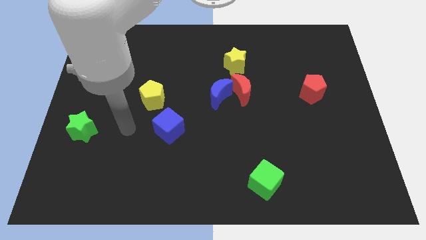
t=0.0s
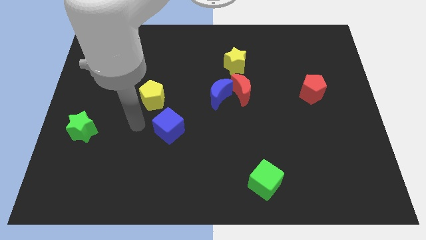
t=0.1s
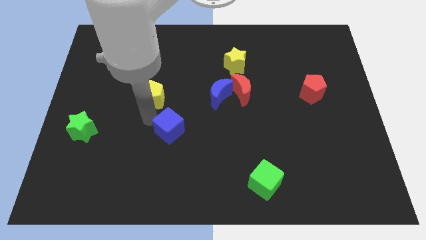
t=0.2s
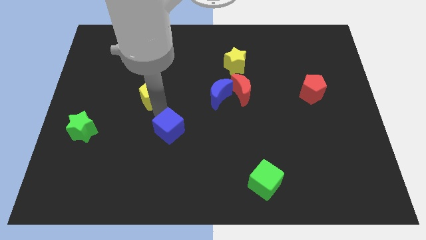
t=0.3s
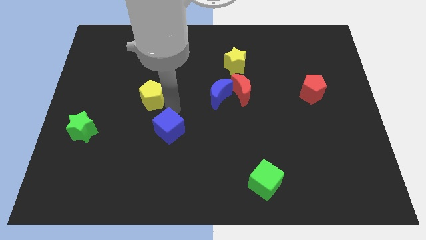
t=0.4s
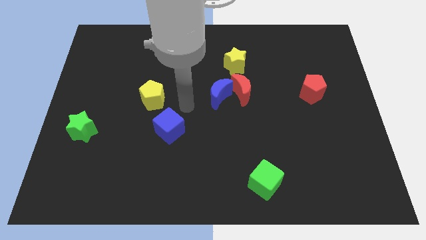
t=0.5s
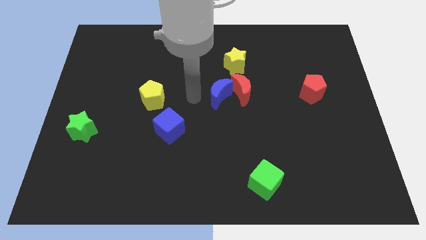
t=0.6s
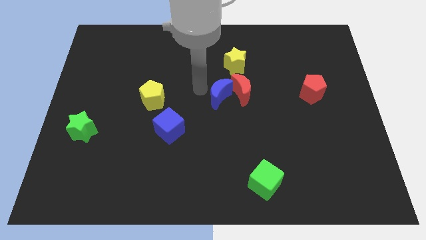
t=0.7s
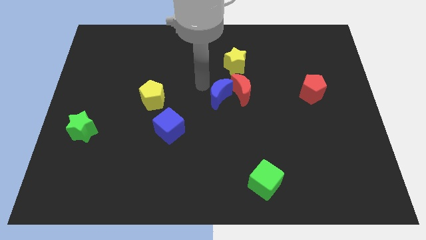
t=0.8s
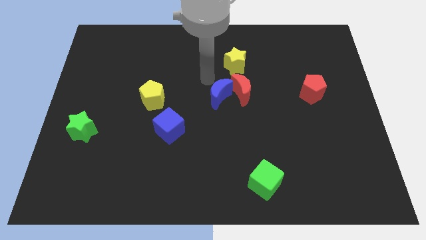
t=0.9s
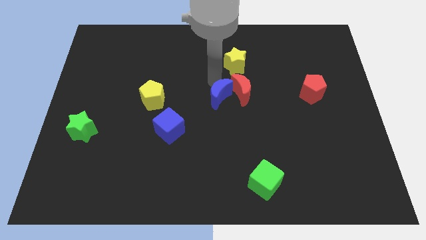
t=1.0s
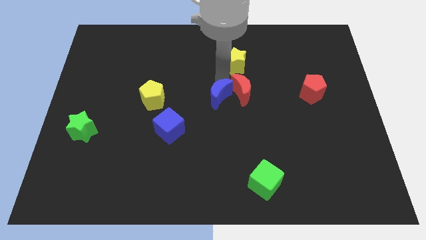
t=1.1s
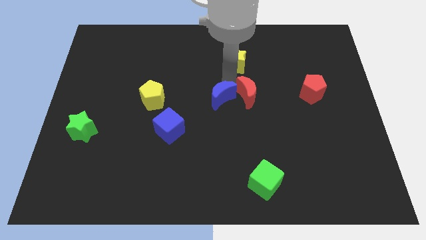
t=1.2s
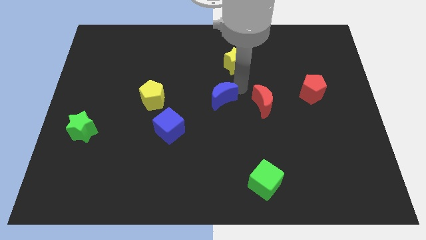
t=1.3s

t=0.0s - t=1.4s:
move the blue moon away from the red moon

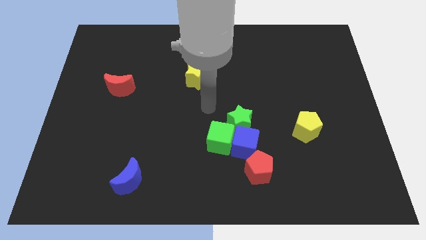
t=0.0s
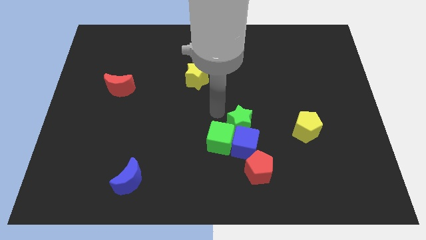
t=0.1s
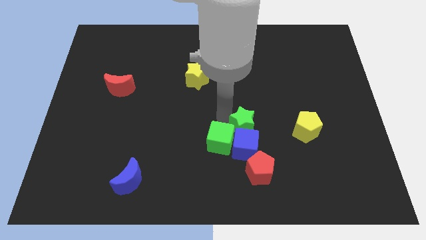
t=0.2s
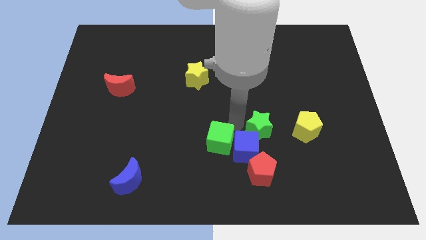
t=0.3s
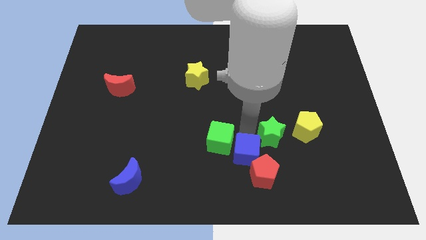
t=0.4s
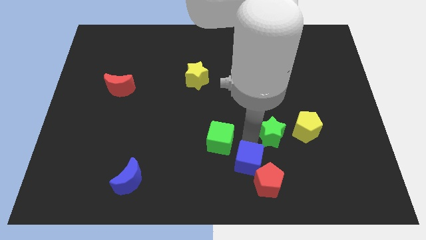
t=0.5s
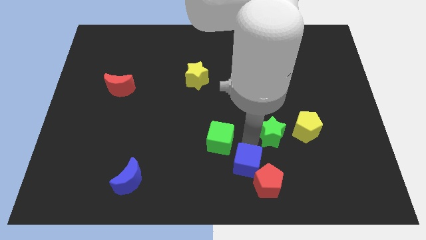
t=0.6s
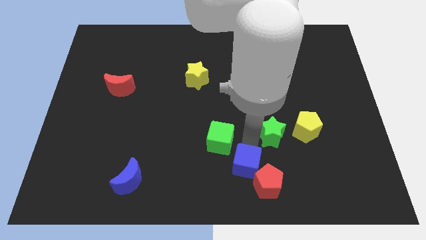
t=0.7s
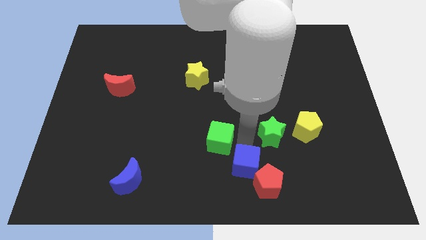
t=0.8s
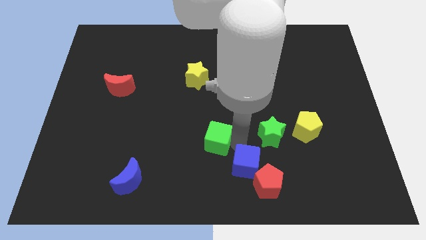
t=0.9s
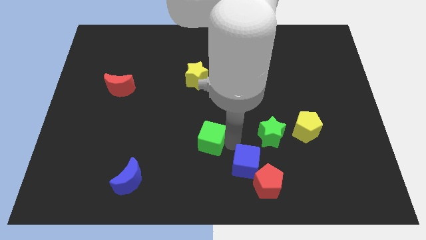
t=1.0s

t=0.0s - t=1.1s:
move the green cube away from the blue cube and green star

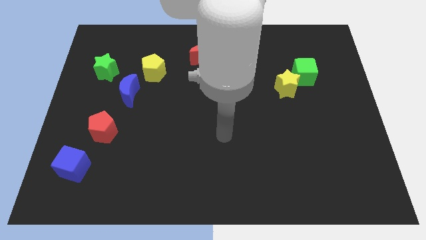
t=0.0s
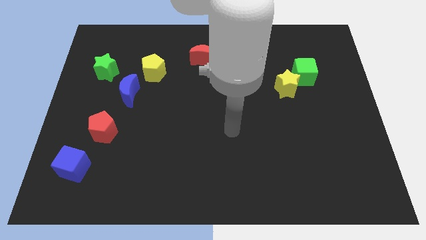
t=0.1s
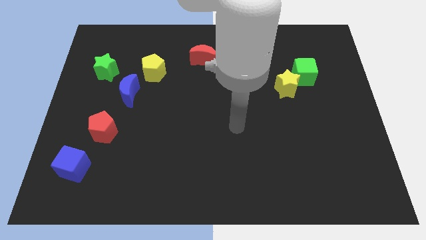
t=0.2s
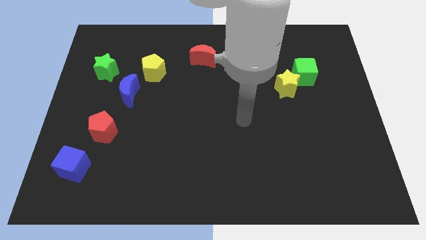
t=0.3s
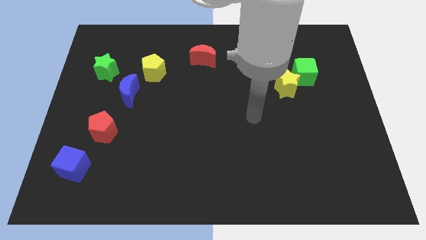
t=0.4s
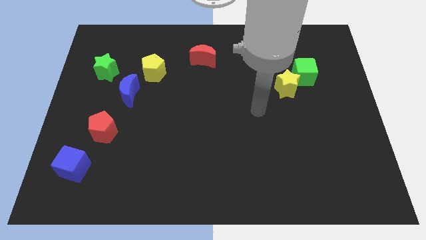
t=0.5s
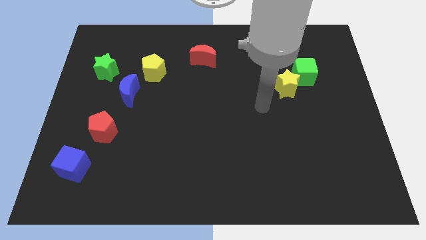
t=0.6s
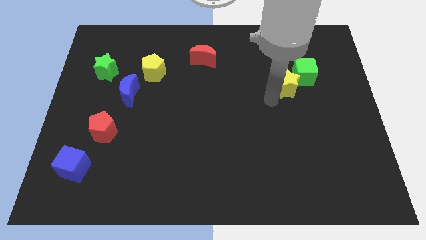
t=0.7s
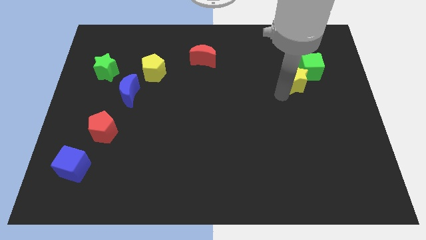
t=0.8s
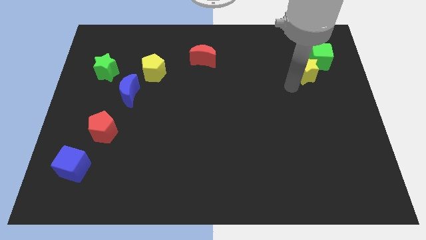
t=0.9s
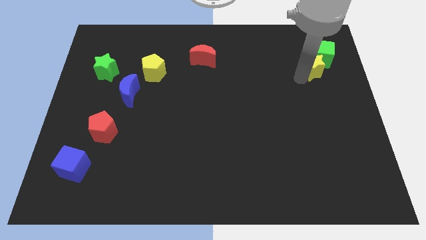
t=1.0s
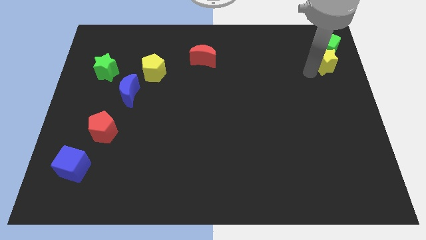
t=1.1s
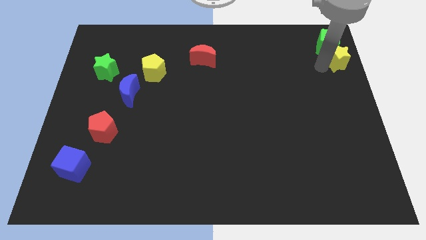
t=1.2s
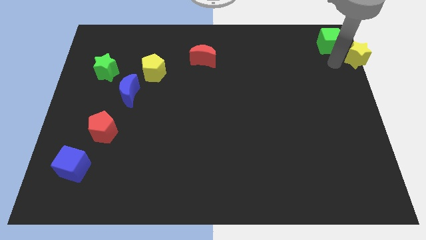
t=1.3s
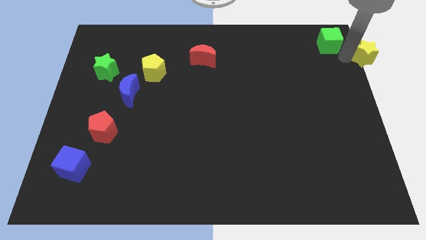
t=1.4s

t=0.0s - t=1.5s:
pull the green cube apart from the yellow star

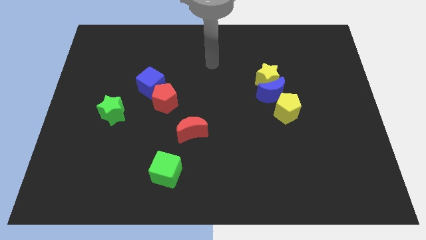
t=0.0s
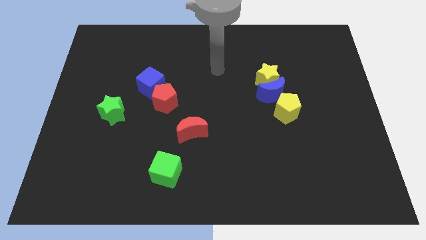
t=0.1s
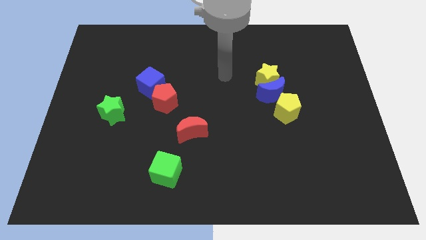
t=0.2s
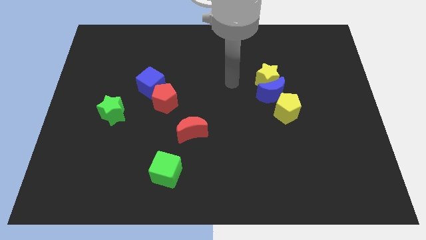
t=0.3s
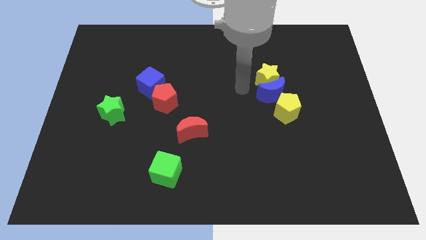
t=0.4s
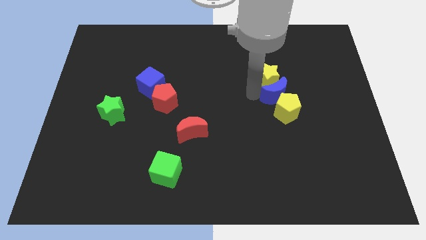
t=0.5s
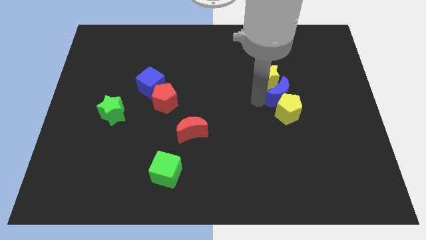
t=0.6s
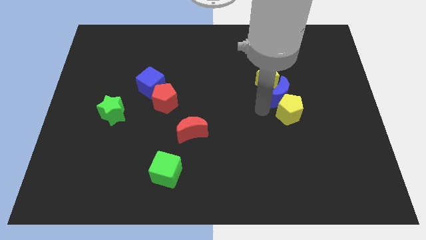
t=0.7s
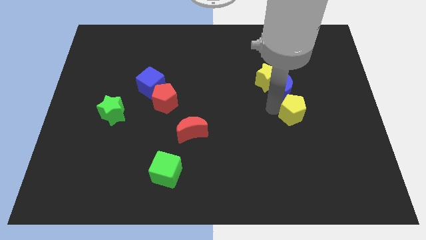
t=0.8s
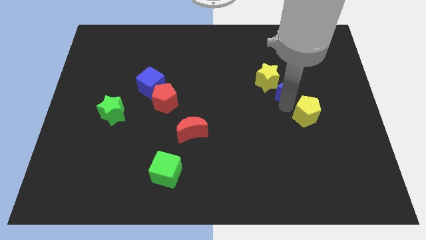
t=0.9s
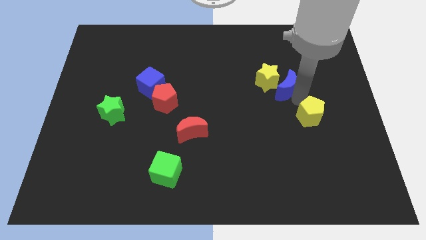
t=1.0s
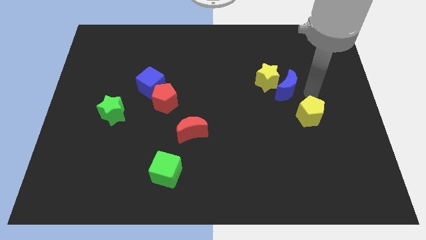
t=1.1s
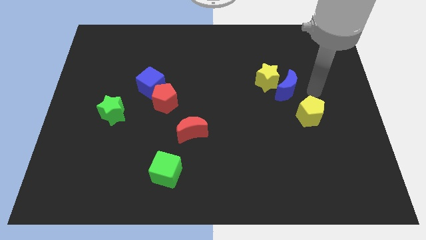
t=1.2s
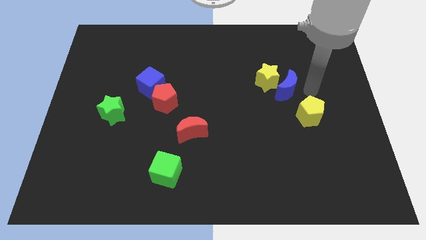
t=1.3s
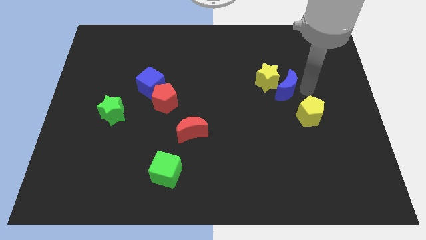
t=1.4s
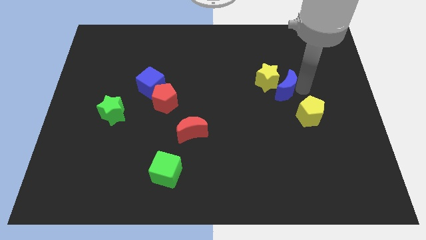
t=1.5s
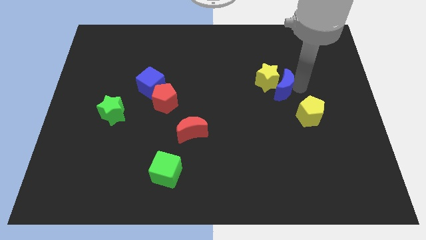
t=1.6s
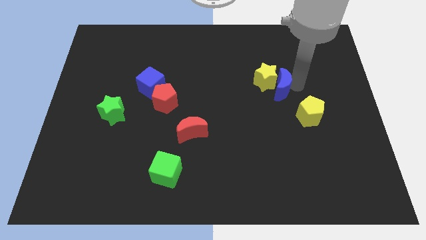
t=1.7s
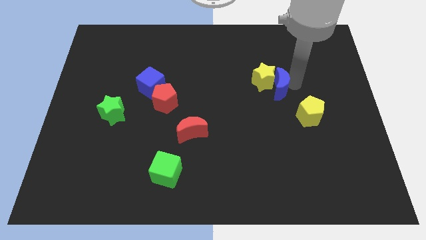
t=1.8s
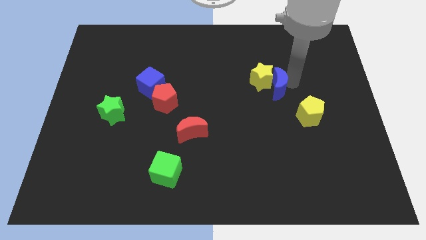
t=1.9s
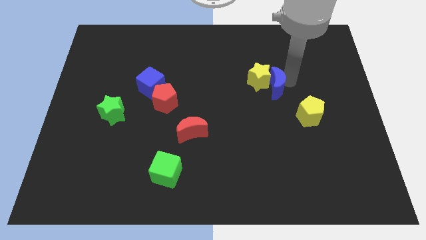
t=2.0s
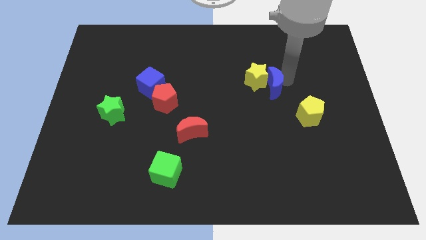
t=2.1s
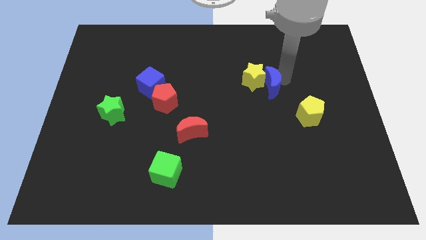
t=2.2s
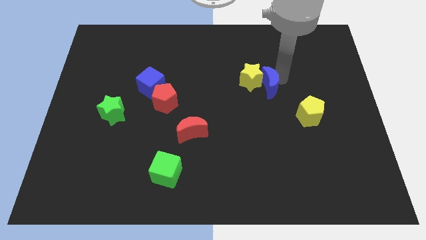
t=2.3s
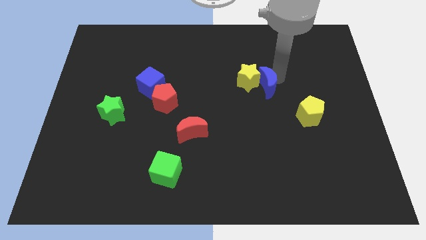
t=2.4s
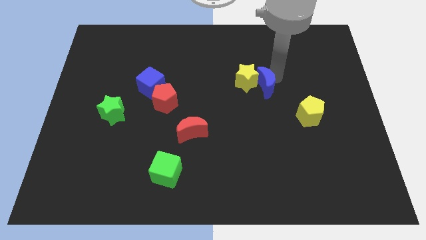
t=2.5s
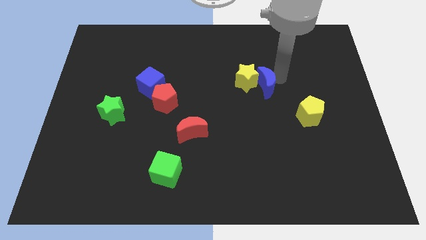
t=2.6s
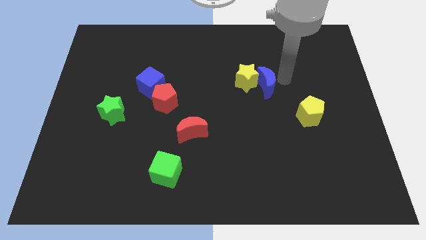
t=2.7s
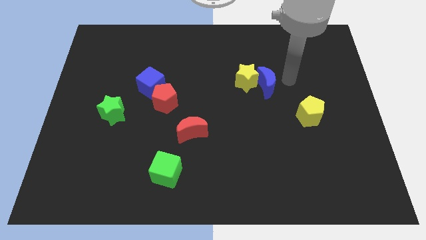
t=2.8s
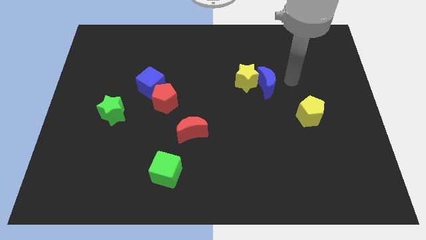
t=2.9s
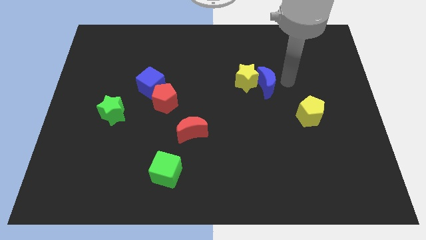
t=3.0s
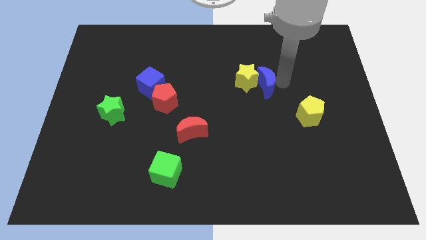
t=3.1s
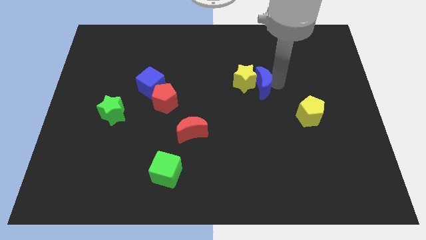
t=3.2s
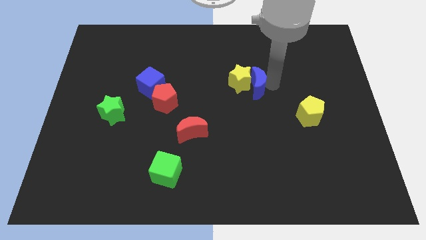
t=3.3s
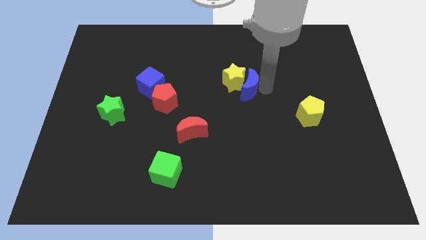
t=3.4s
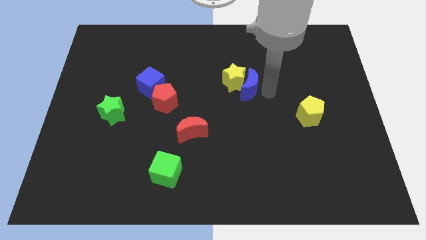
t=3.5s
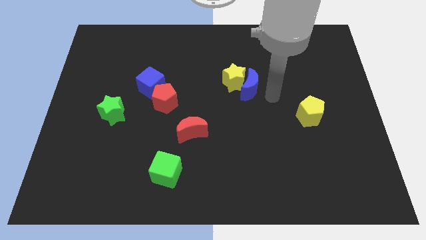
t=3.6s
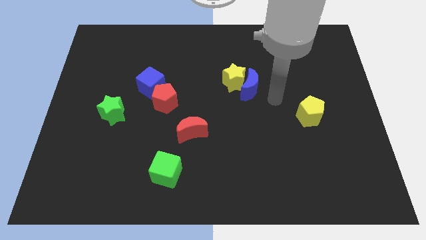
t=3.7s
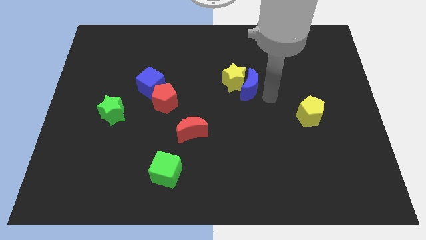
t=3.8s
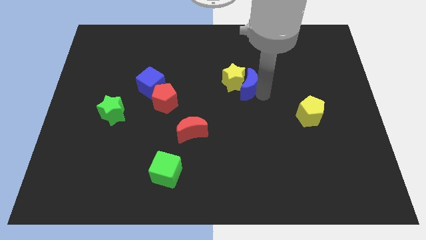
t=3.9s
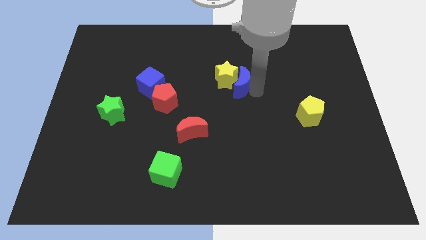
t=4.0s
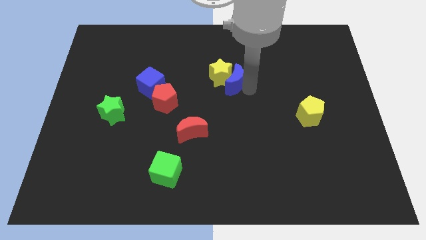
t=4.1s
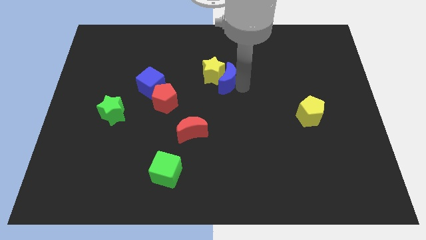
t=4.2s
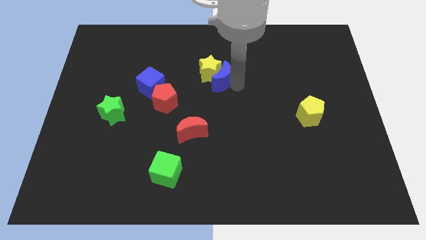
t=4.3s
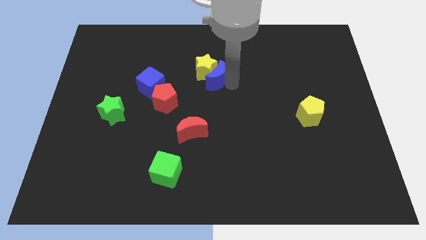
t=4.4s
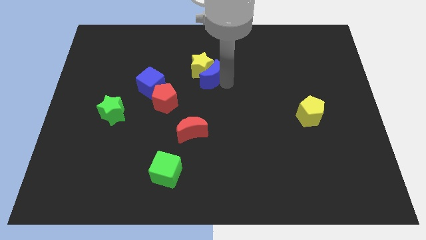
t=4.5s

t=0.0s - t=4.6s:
pull the blue moon apart from the yellow star and yellow pentagon

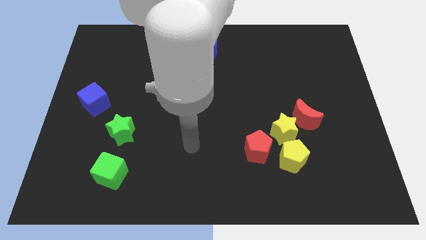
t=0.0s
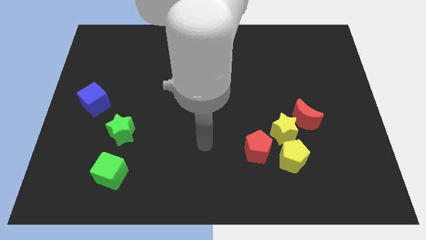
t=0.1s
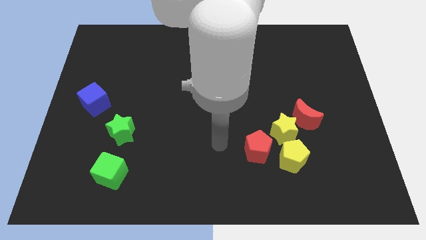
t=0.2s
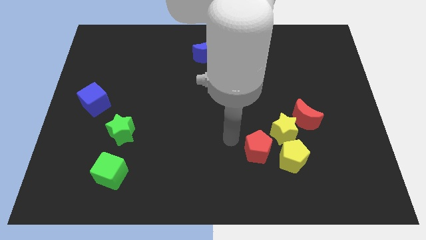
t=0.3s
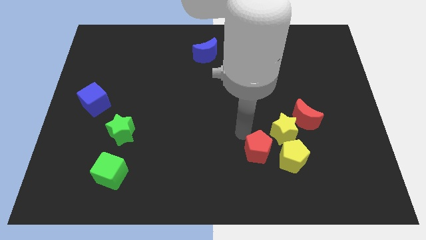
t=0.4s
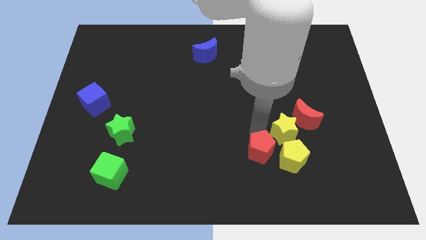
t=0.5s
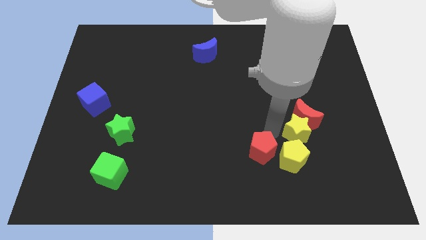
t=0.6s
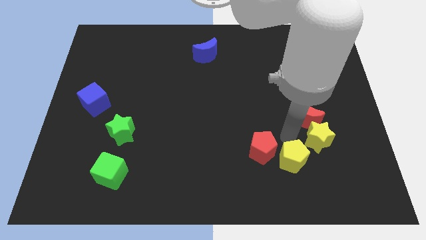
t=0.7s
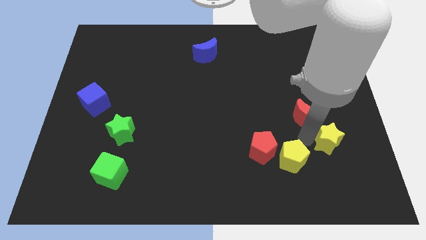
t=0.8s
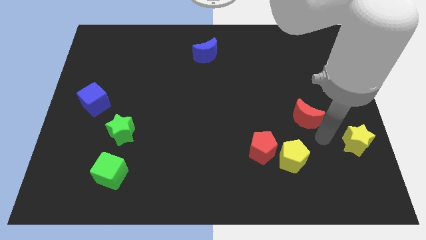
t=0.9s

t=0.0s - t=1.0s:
move the red moon away from the yellow star
